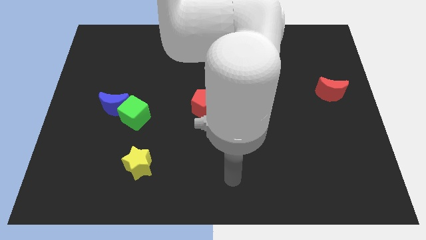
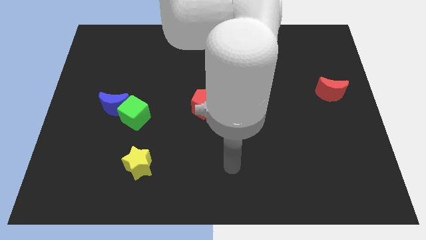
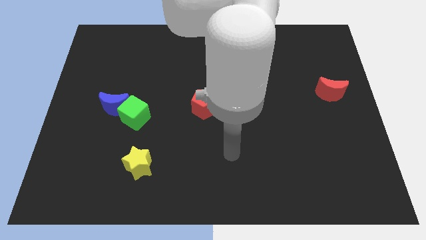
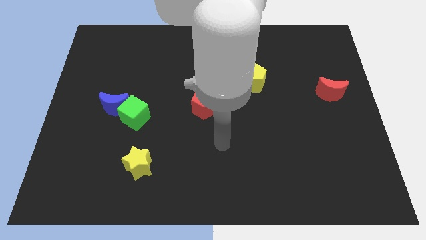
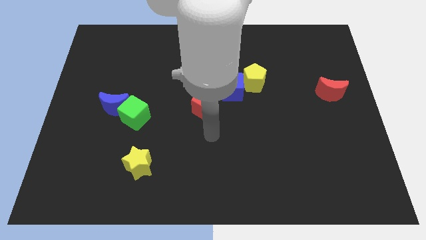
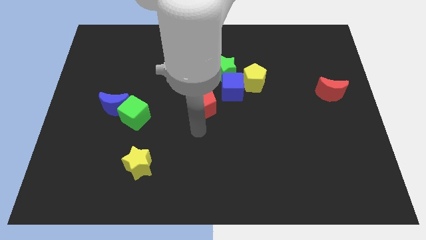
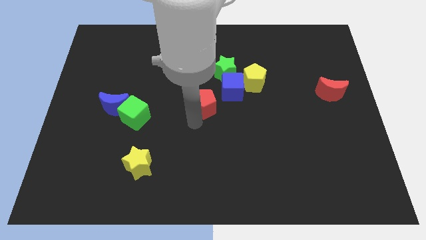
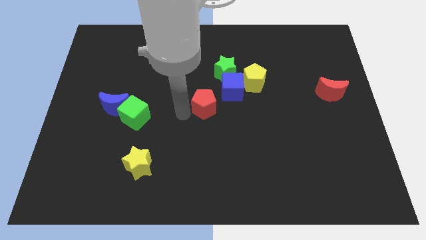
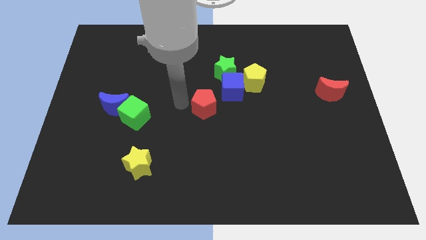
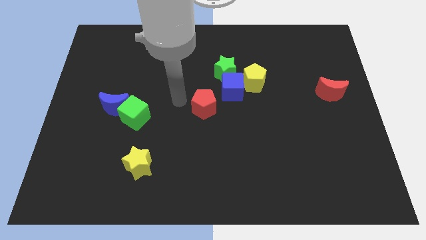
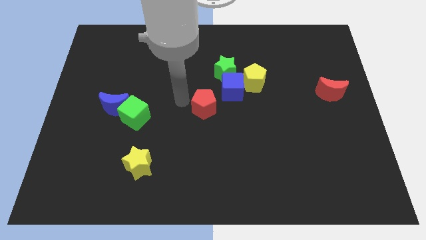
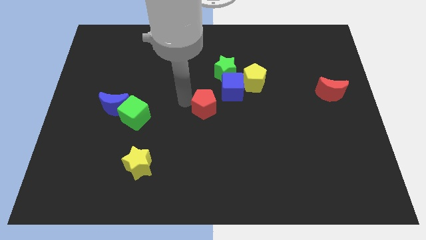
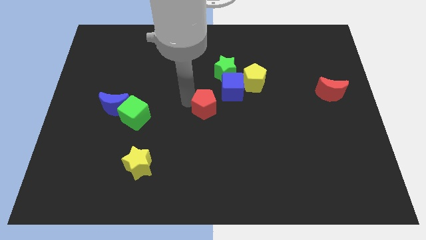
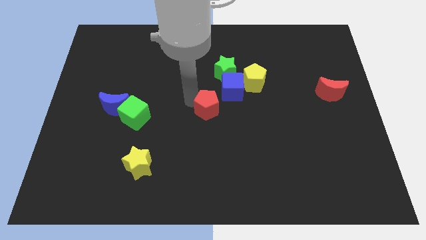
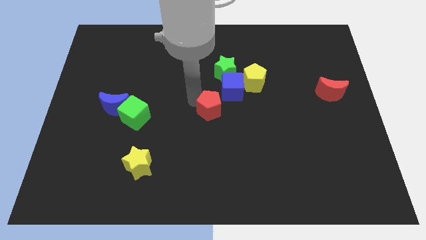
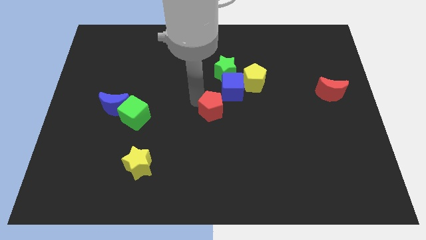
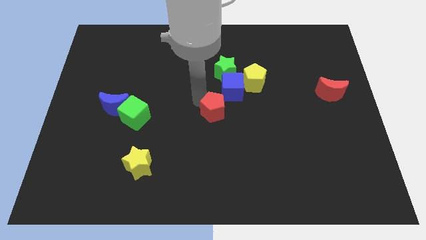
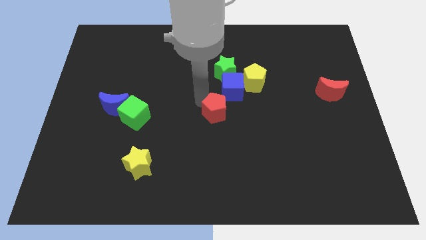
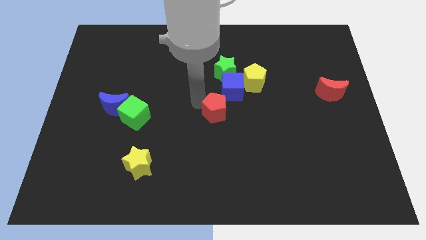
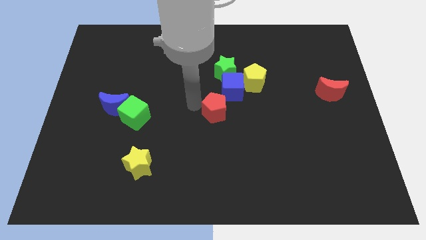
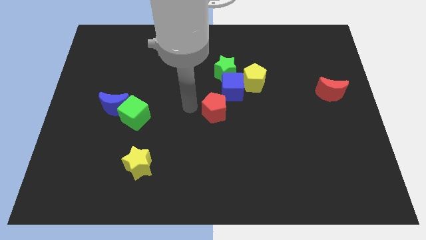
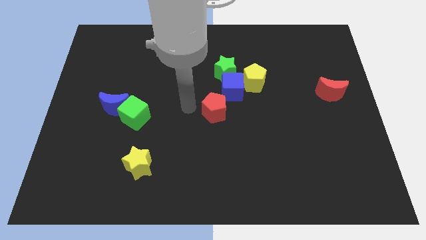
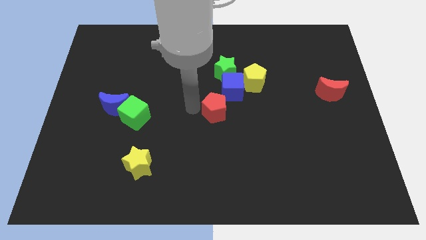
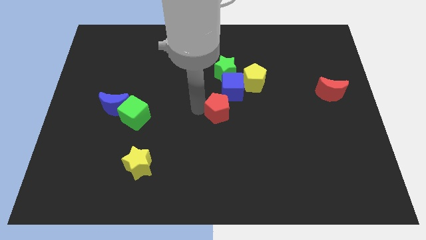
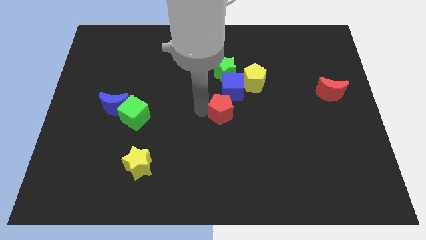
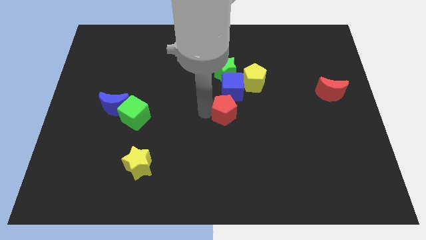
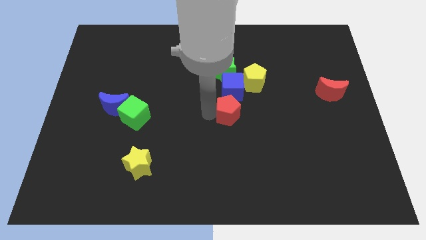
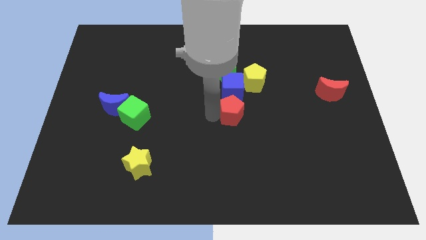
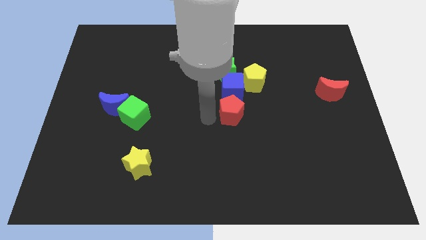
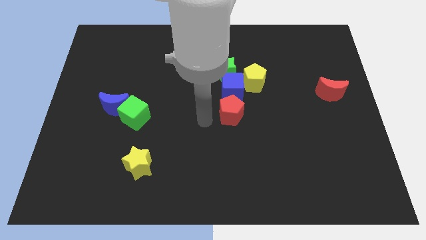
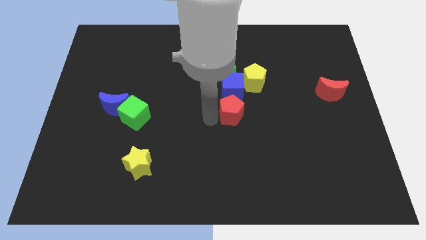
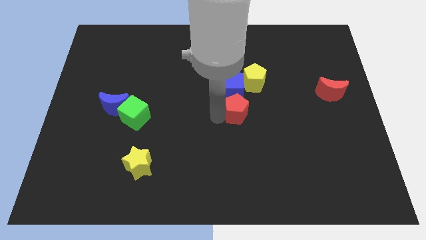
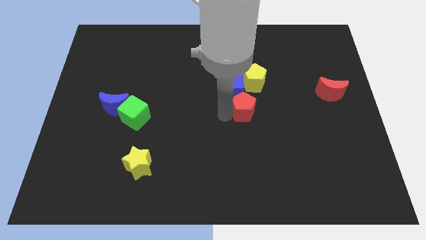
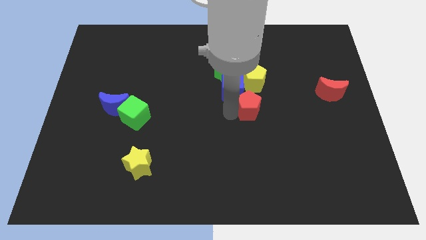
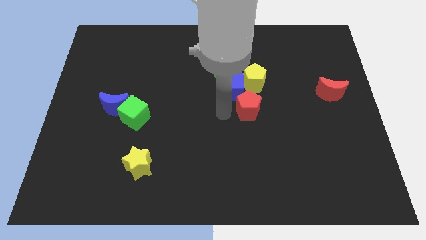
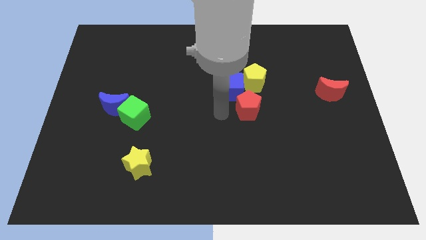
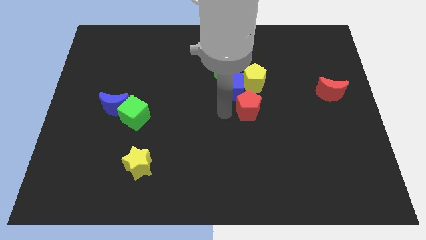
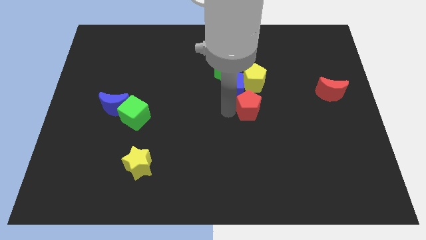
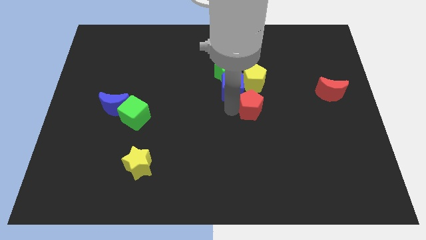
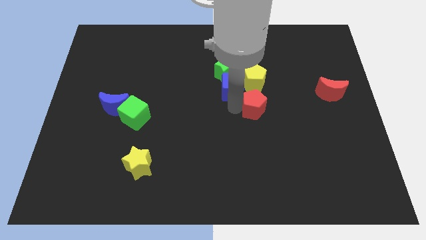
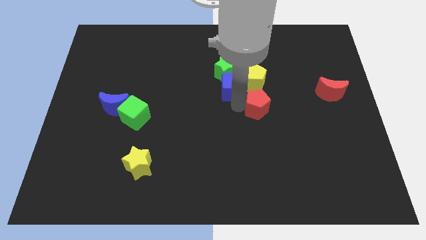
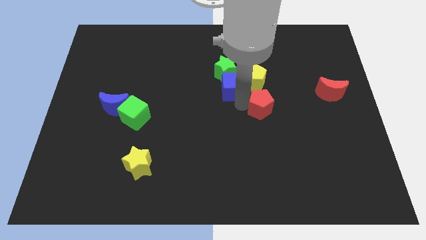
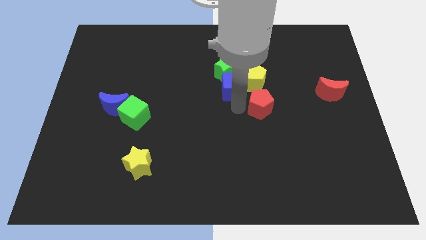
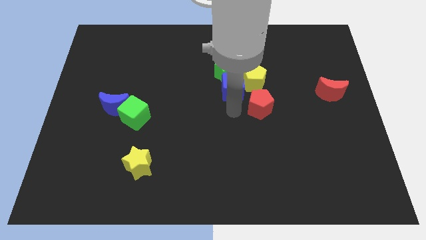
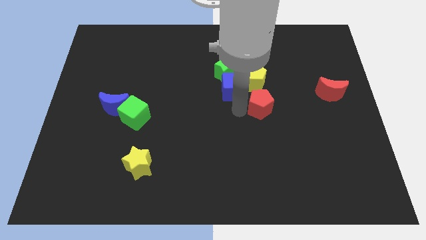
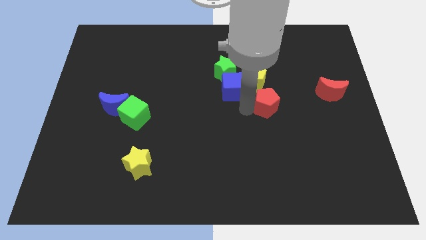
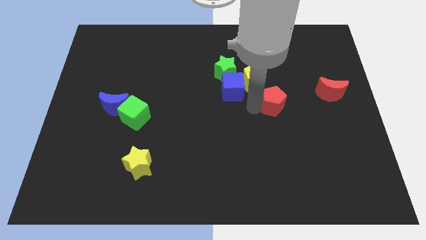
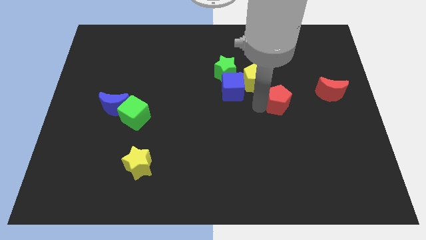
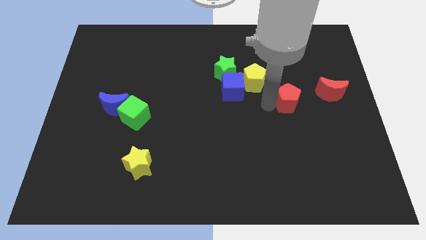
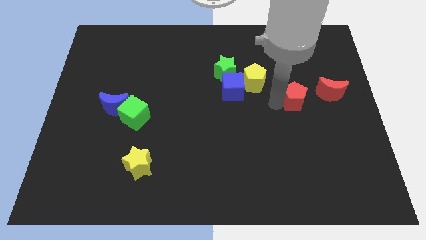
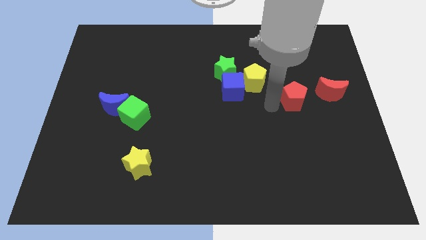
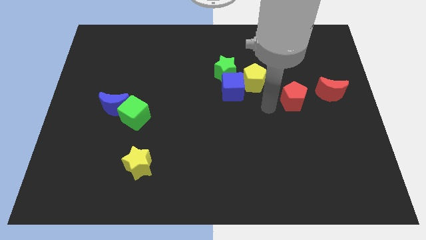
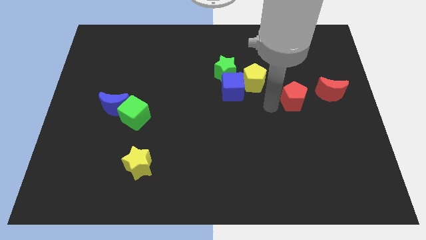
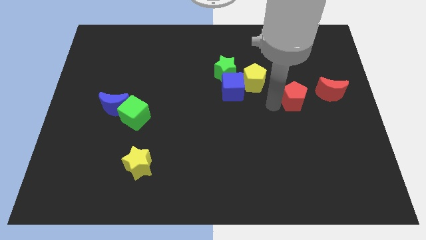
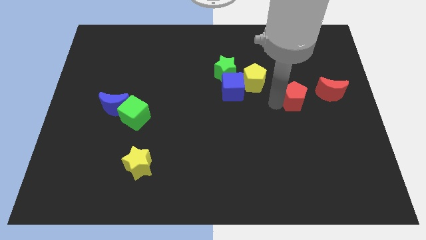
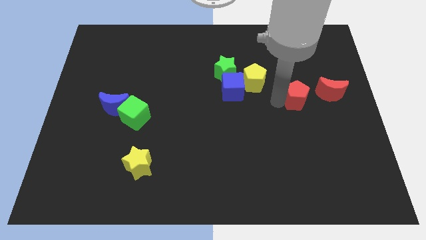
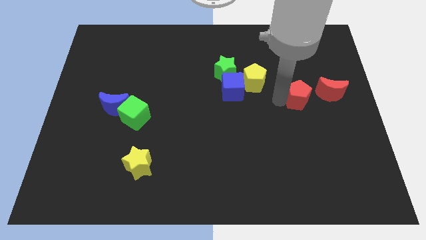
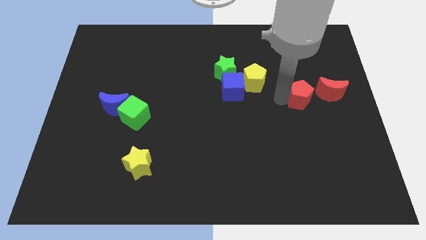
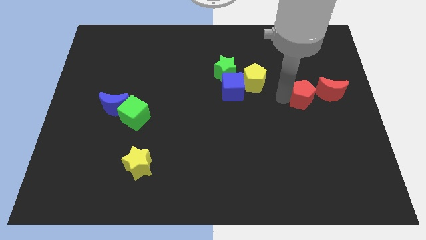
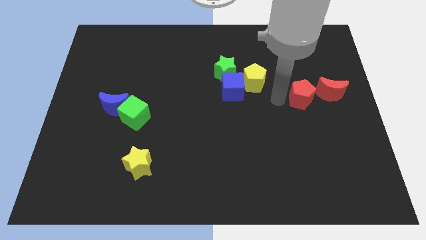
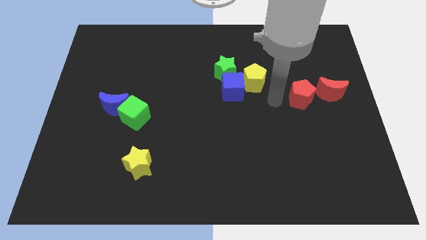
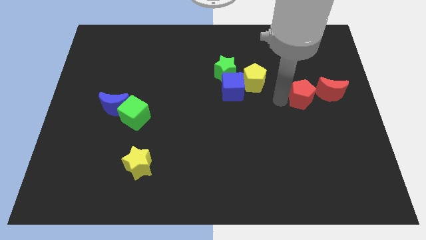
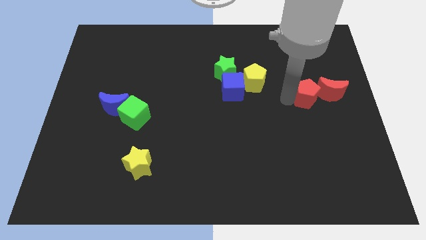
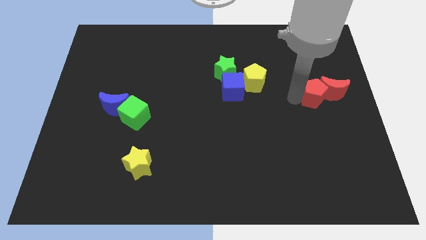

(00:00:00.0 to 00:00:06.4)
put the red pentagon close to the red moon

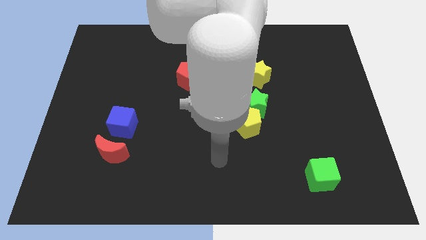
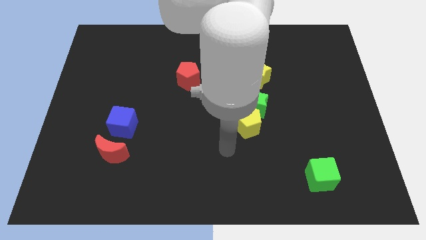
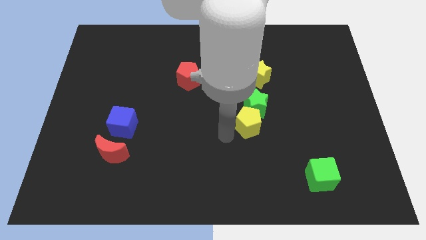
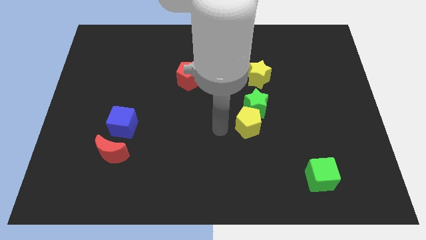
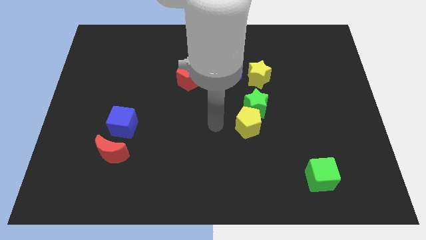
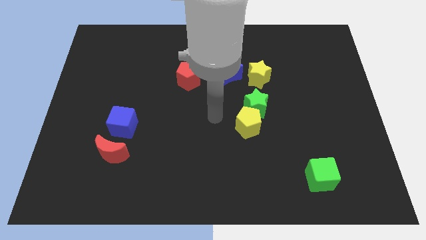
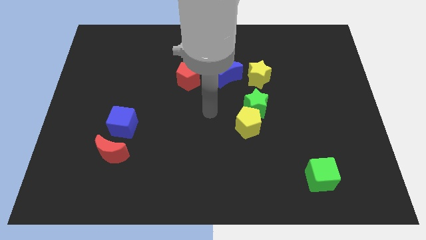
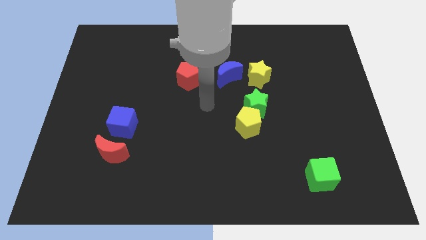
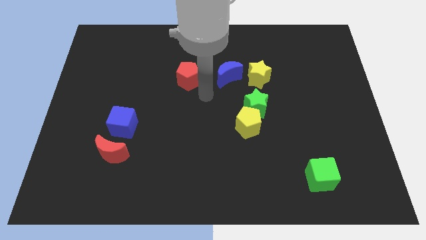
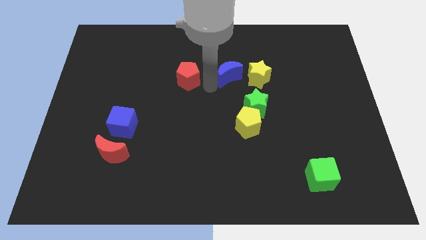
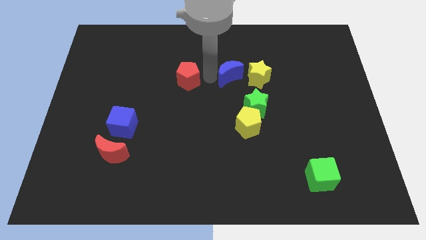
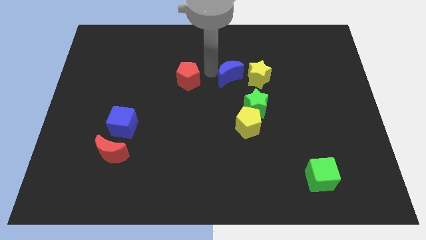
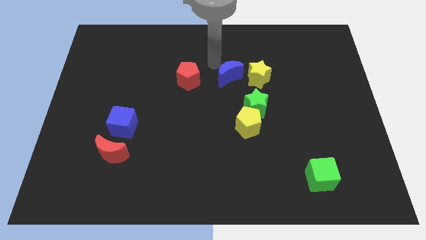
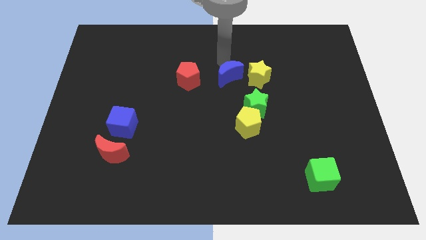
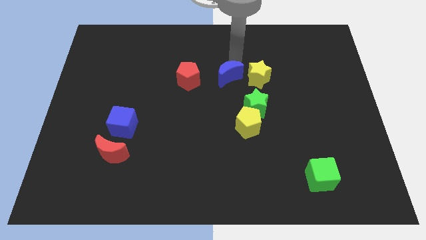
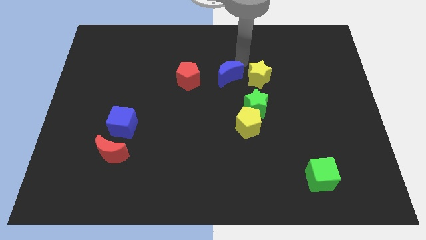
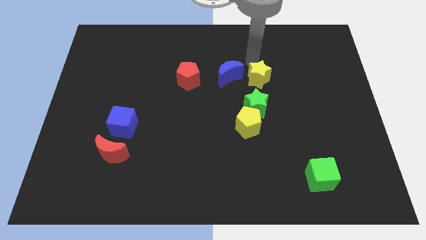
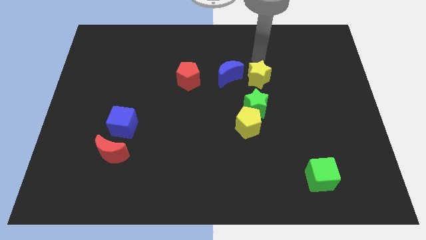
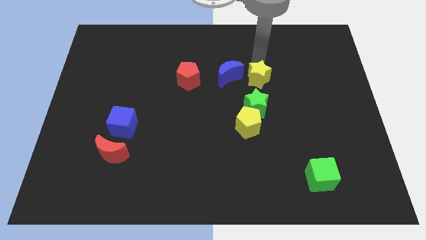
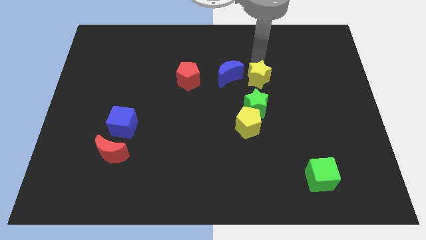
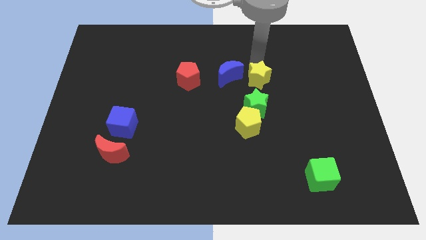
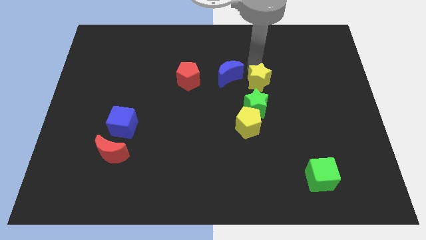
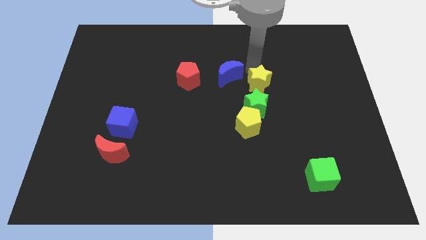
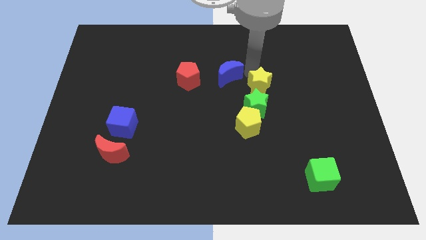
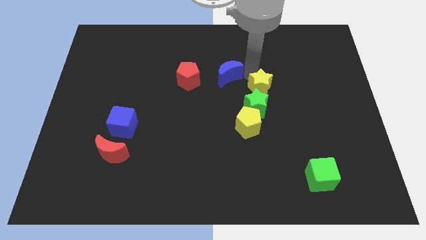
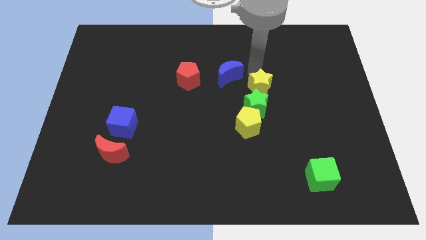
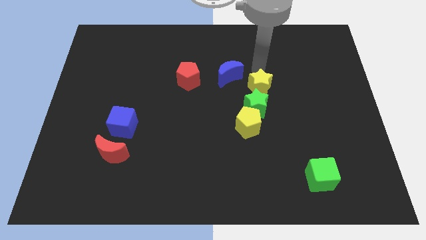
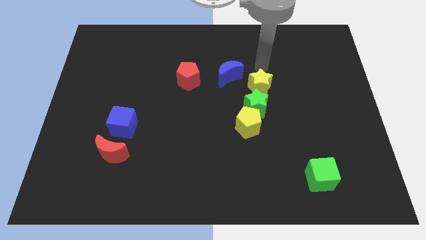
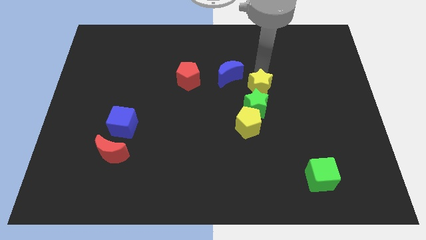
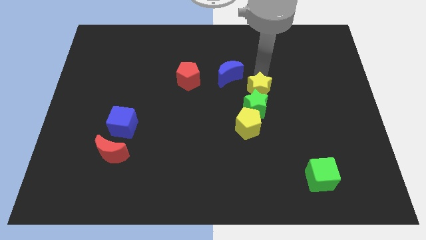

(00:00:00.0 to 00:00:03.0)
put the yellow star towards the green star
